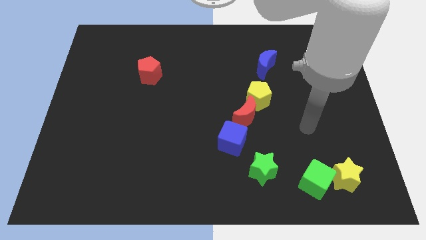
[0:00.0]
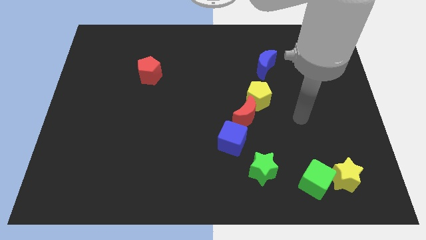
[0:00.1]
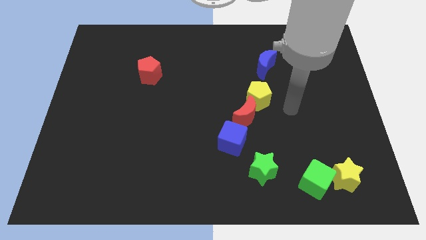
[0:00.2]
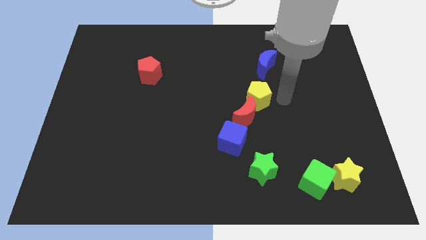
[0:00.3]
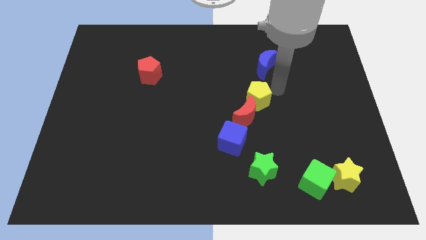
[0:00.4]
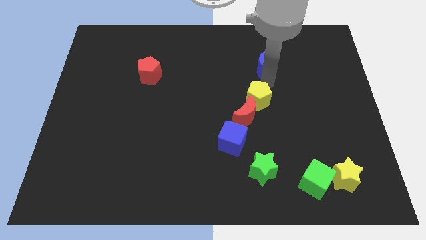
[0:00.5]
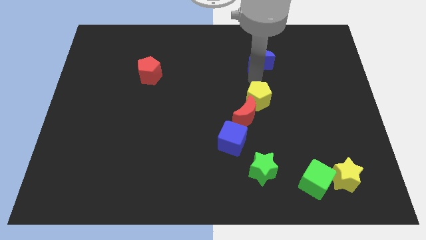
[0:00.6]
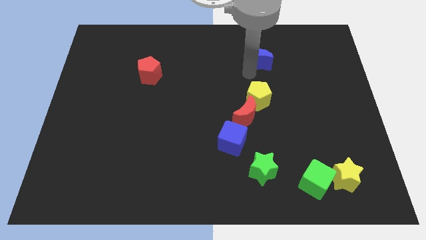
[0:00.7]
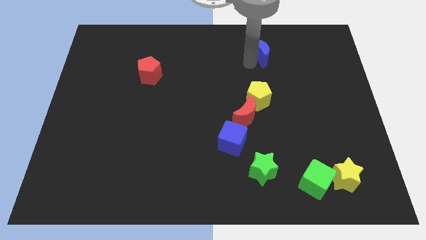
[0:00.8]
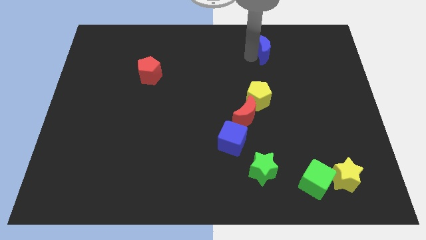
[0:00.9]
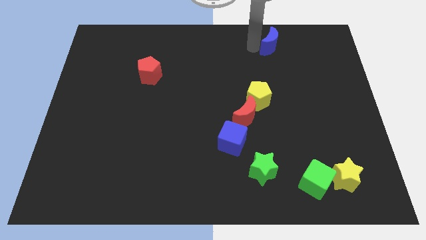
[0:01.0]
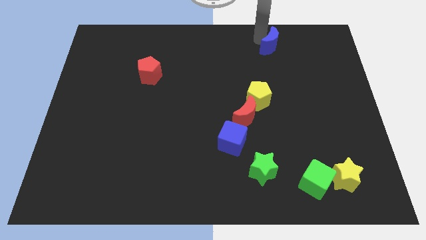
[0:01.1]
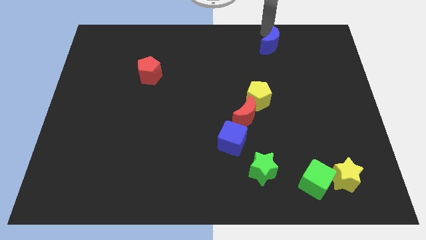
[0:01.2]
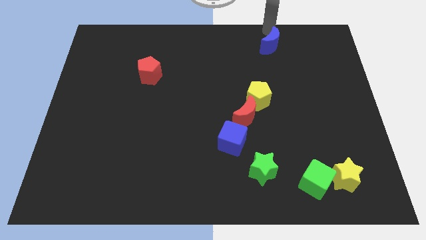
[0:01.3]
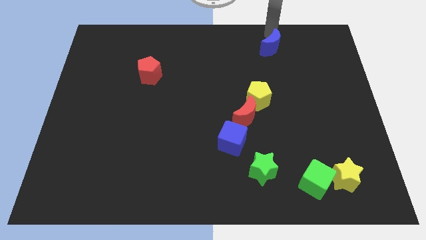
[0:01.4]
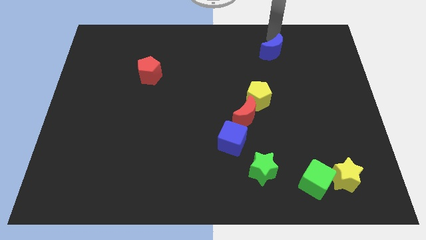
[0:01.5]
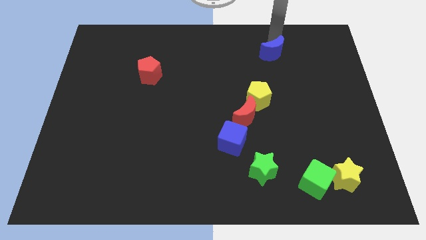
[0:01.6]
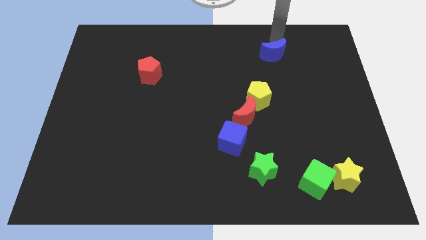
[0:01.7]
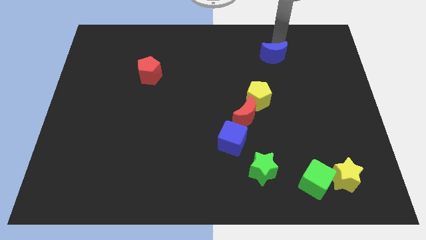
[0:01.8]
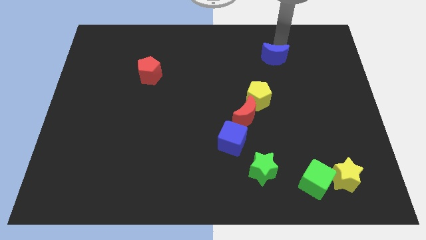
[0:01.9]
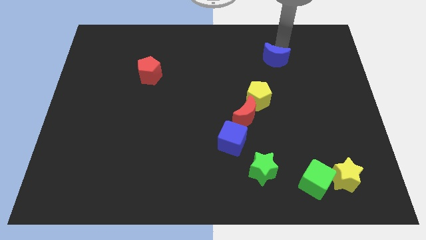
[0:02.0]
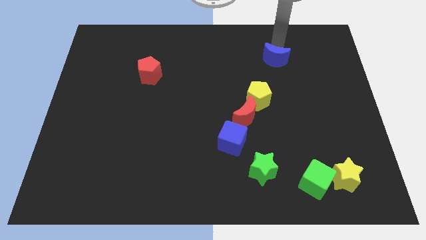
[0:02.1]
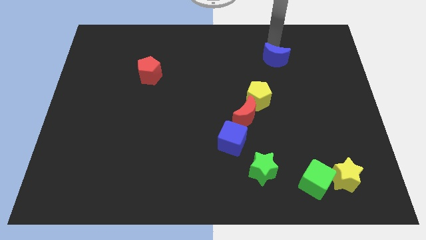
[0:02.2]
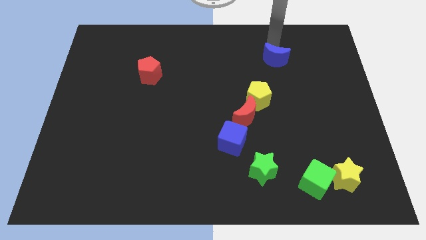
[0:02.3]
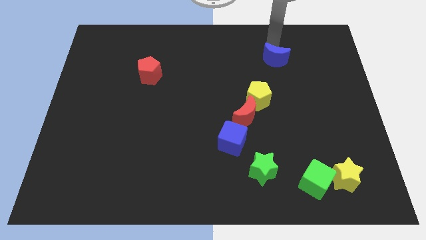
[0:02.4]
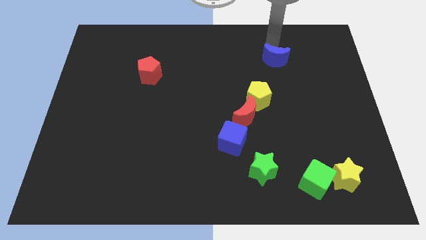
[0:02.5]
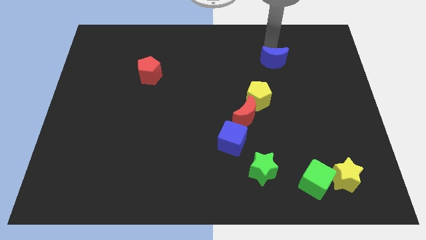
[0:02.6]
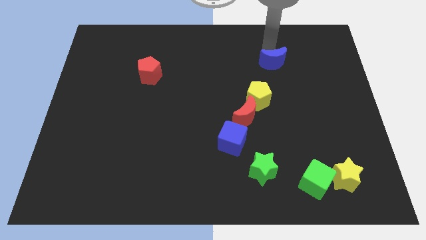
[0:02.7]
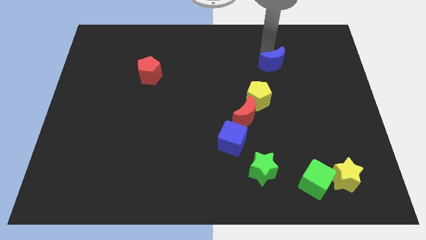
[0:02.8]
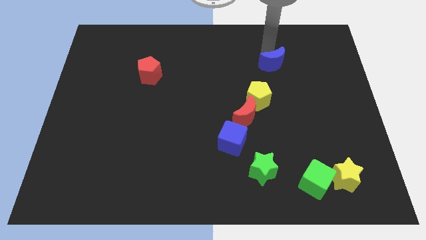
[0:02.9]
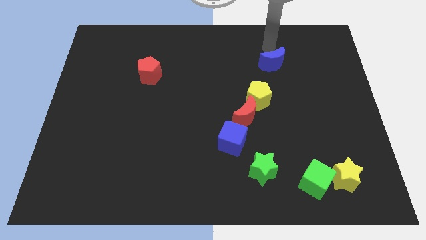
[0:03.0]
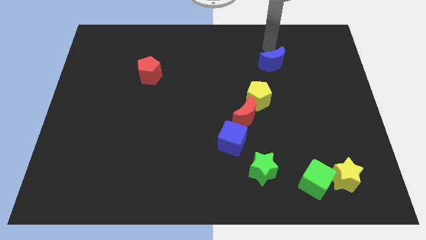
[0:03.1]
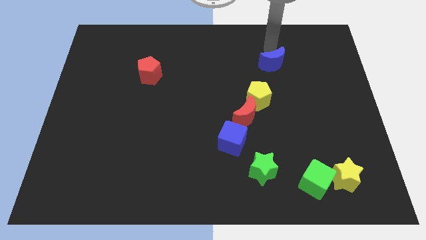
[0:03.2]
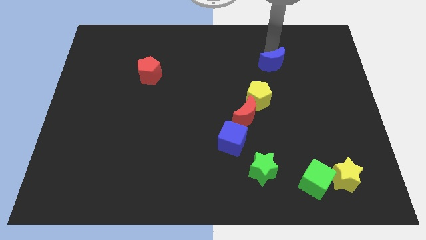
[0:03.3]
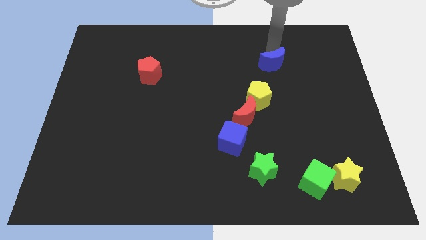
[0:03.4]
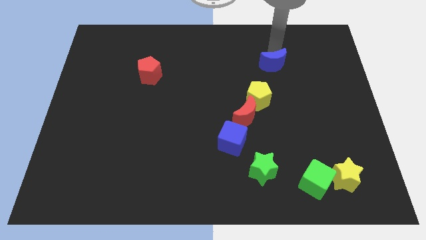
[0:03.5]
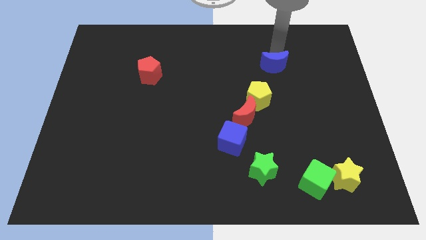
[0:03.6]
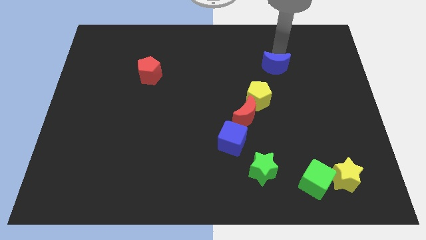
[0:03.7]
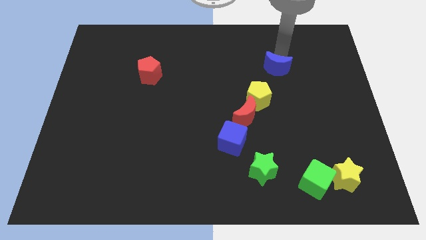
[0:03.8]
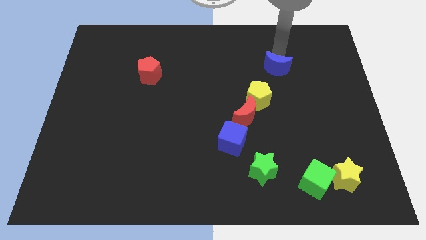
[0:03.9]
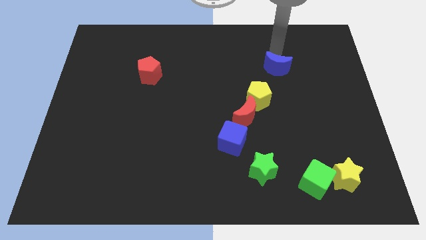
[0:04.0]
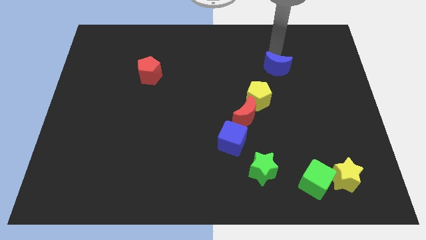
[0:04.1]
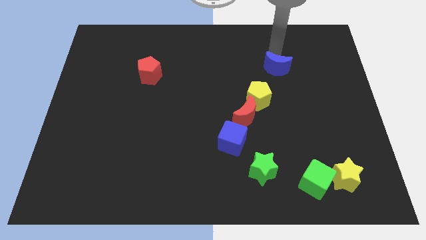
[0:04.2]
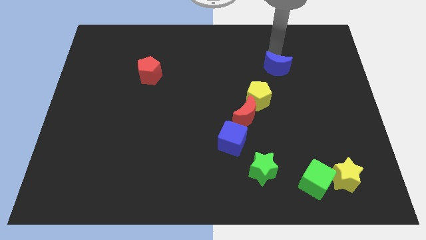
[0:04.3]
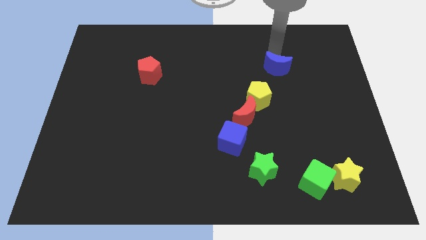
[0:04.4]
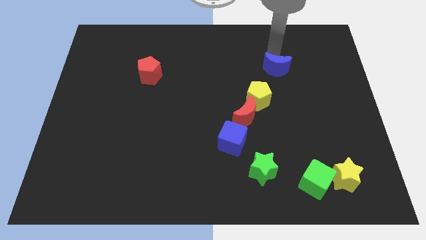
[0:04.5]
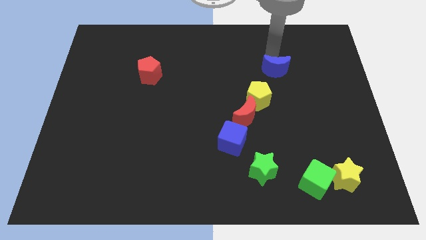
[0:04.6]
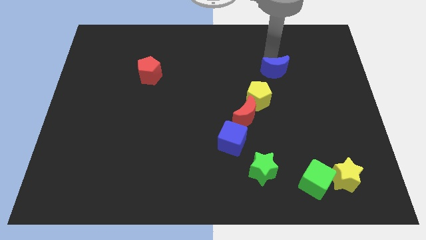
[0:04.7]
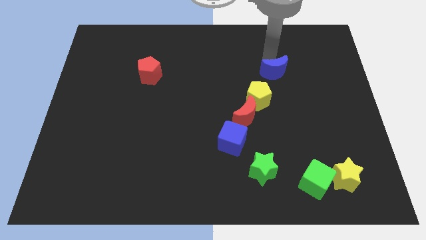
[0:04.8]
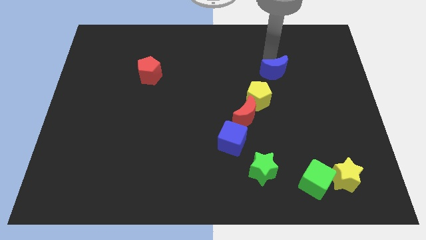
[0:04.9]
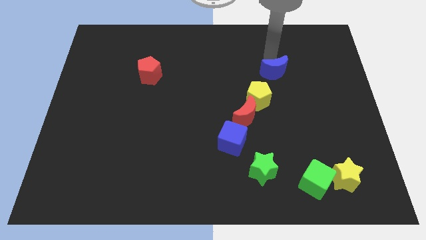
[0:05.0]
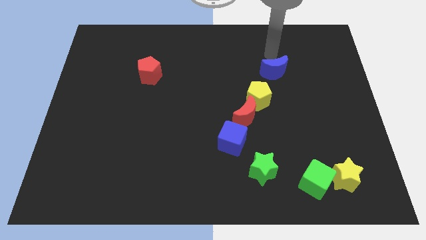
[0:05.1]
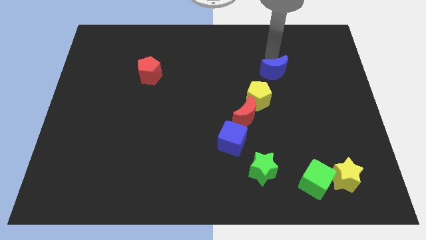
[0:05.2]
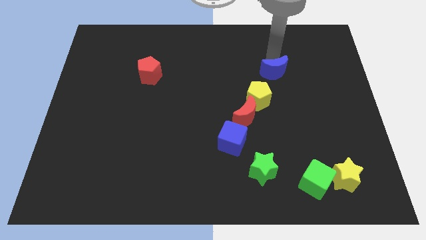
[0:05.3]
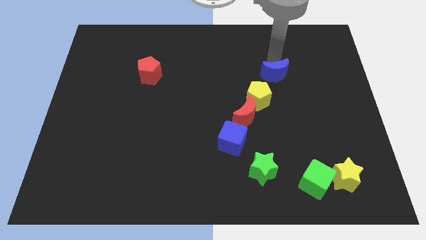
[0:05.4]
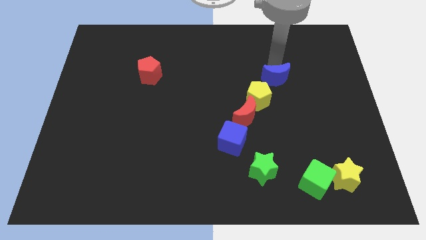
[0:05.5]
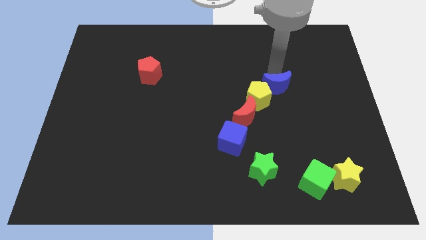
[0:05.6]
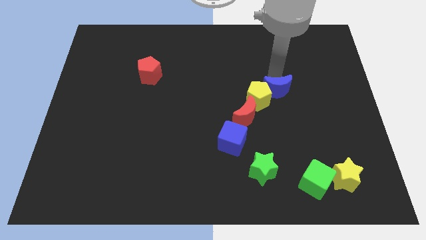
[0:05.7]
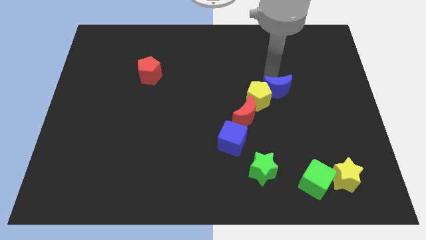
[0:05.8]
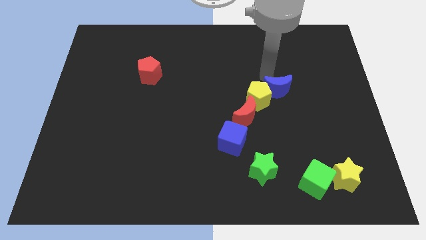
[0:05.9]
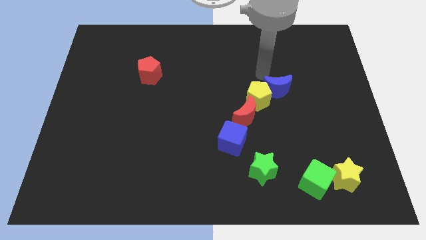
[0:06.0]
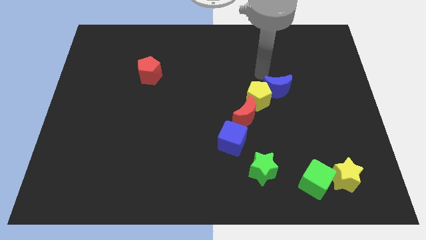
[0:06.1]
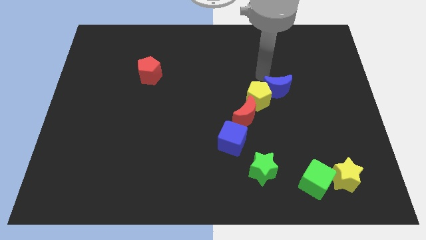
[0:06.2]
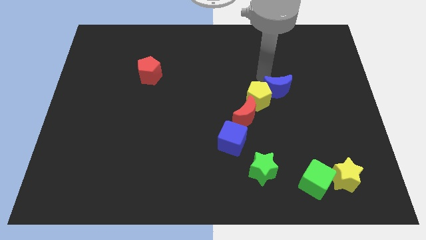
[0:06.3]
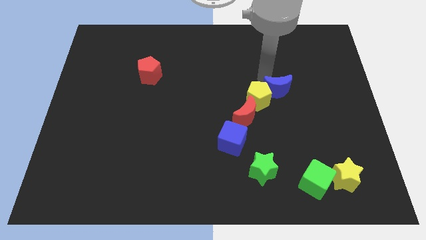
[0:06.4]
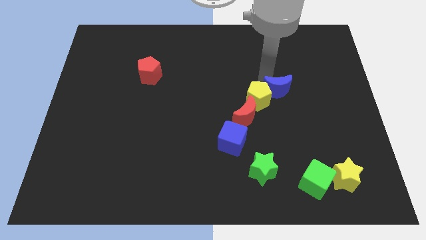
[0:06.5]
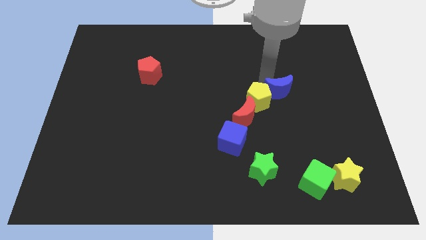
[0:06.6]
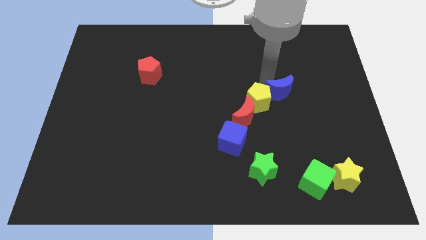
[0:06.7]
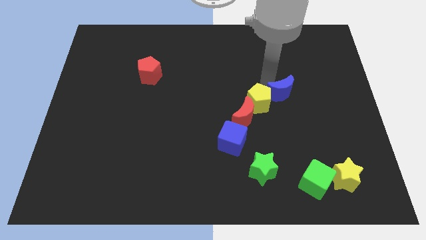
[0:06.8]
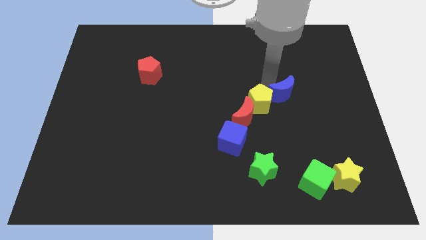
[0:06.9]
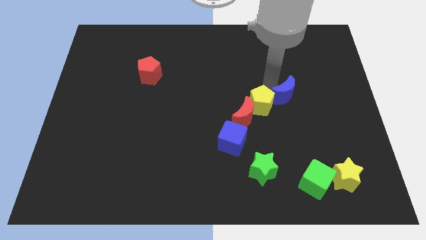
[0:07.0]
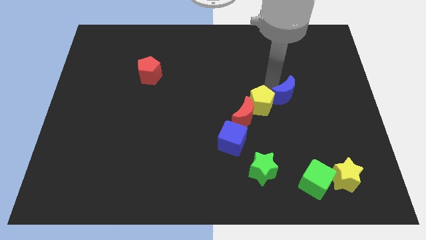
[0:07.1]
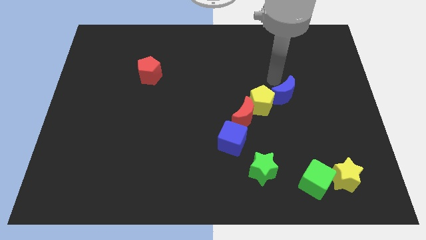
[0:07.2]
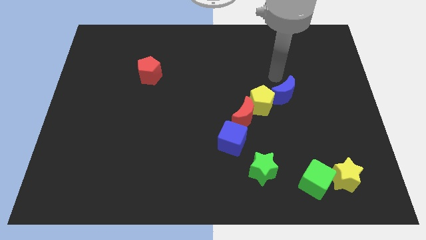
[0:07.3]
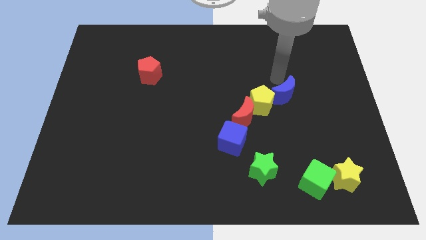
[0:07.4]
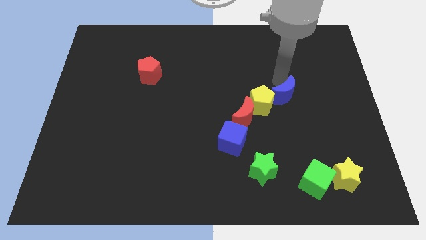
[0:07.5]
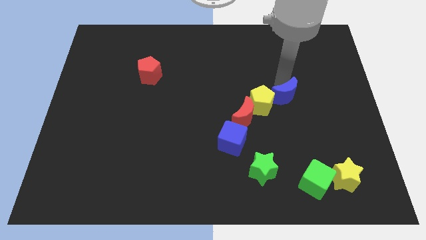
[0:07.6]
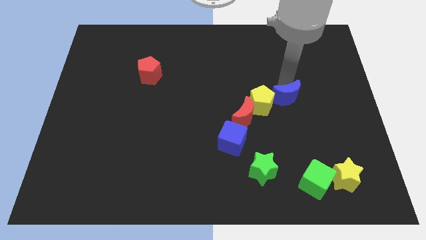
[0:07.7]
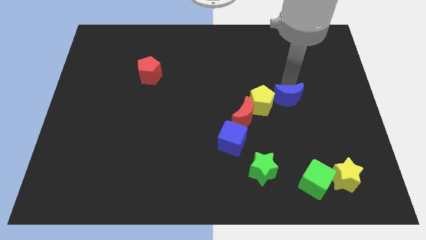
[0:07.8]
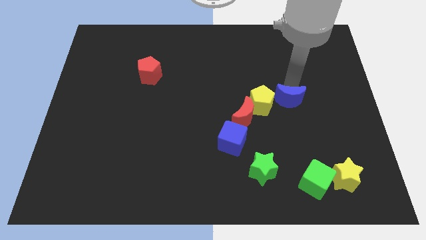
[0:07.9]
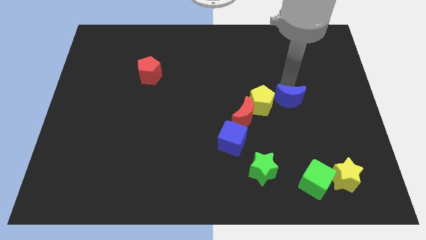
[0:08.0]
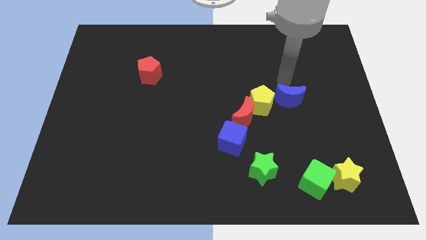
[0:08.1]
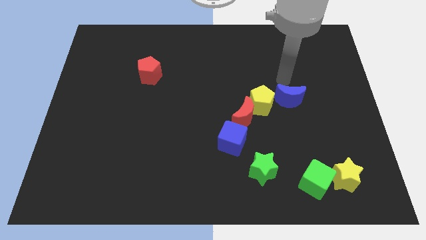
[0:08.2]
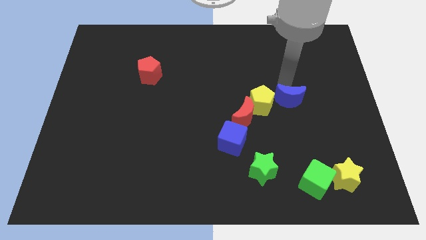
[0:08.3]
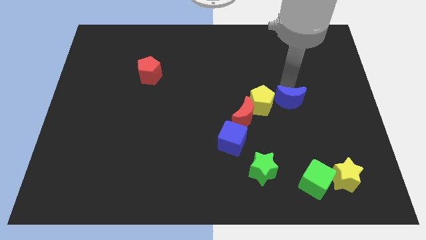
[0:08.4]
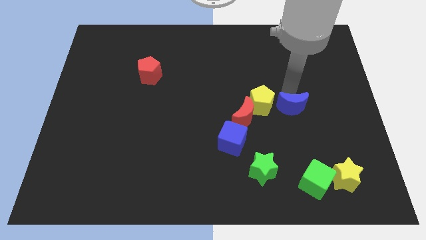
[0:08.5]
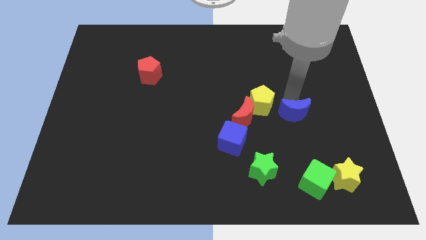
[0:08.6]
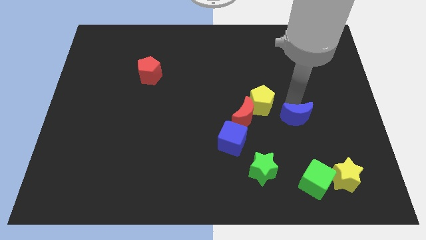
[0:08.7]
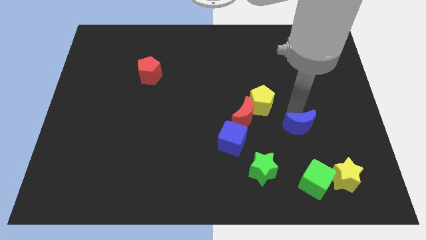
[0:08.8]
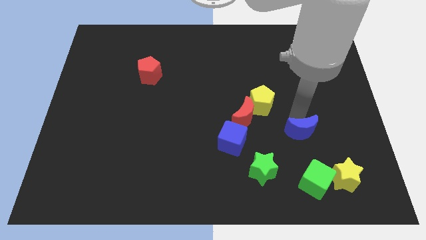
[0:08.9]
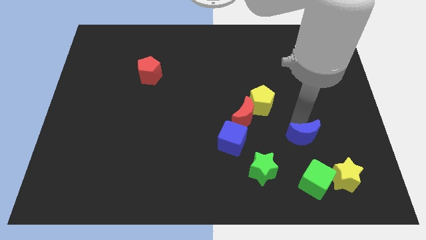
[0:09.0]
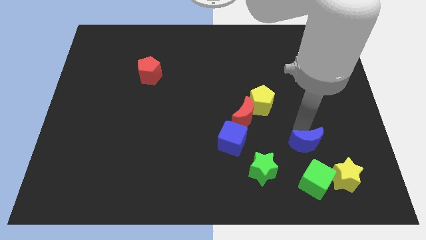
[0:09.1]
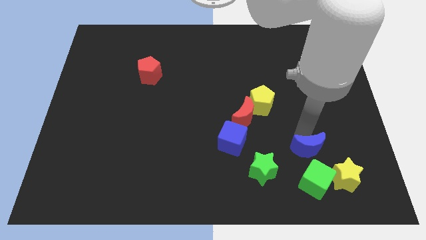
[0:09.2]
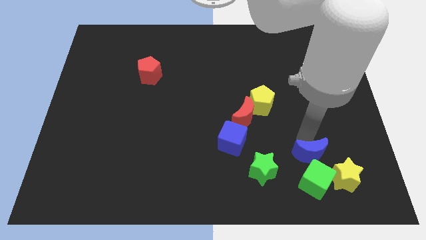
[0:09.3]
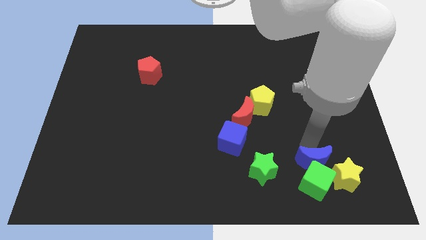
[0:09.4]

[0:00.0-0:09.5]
push the blue moon towards the green cube
